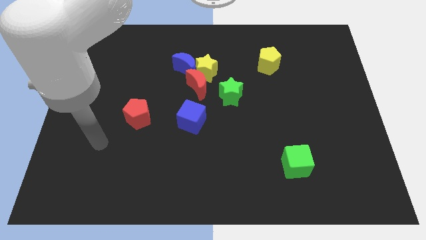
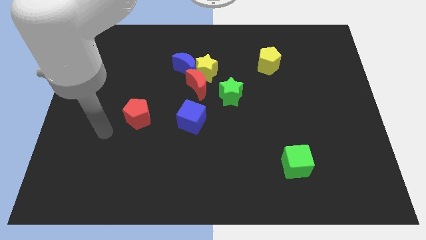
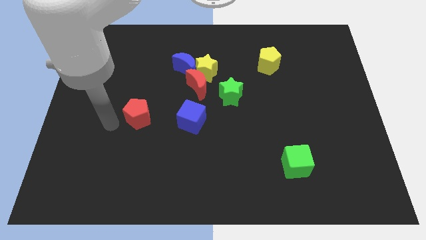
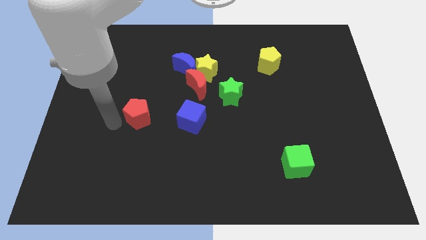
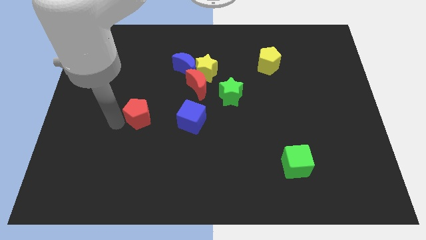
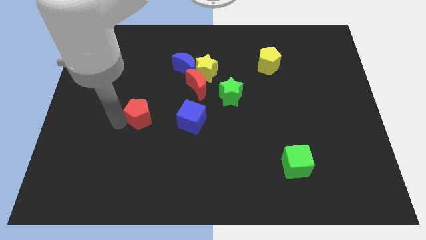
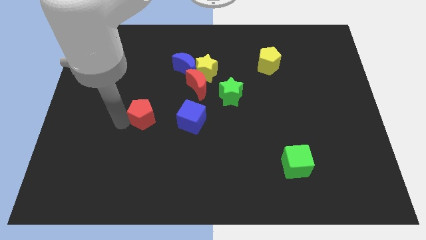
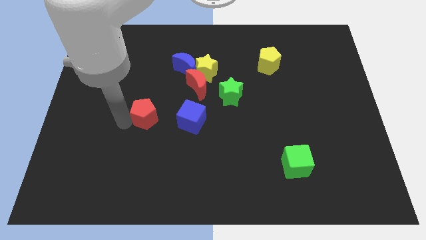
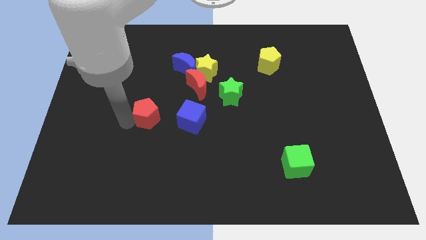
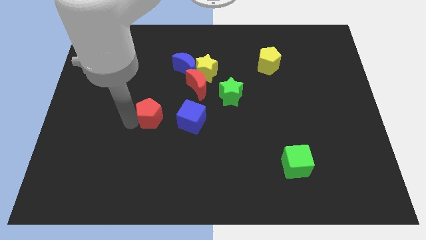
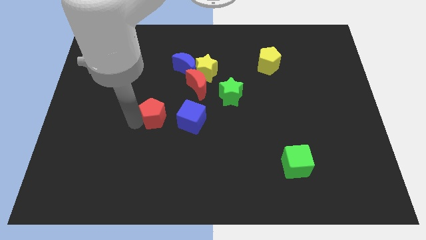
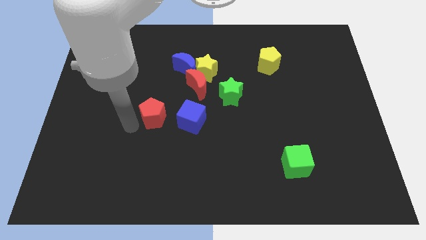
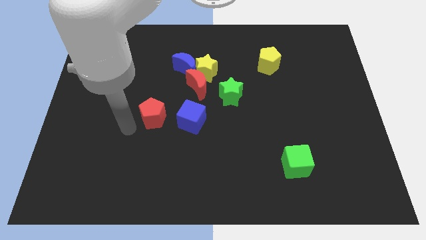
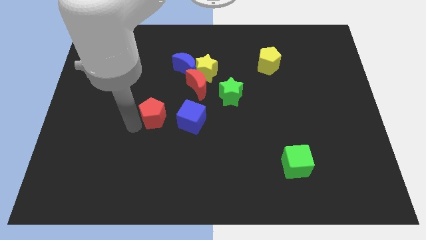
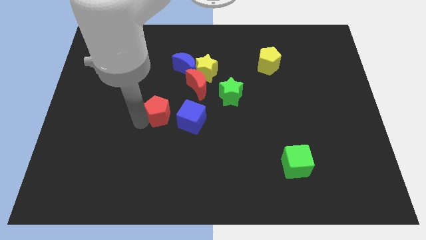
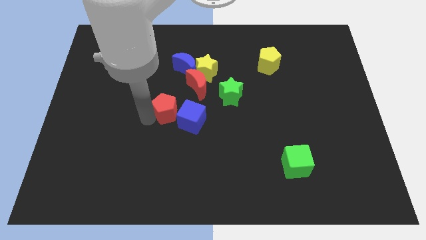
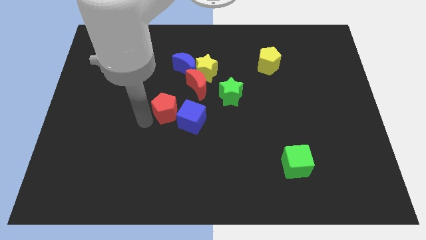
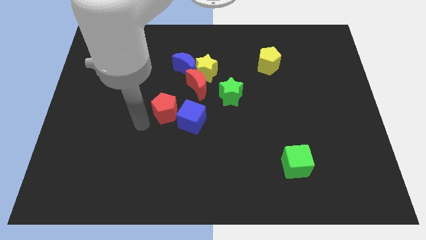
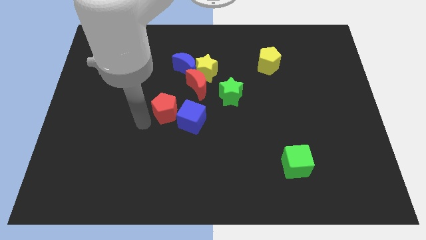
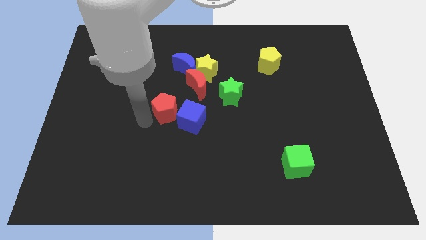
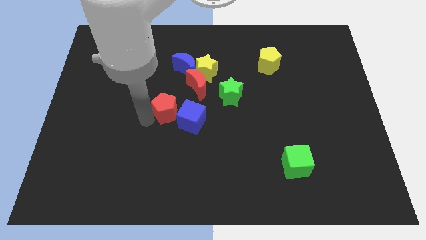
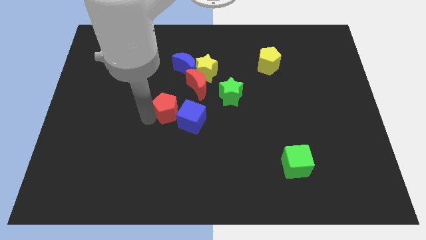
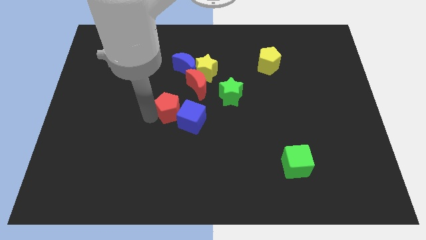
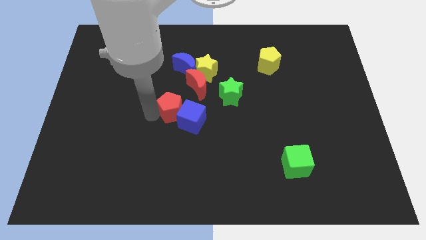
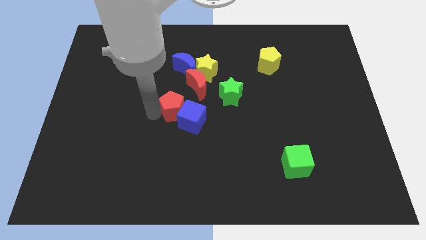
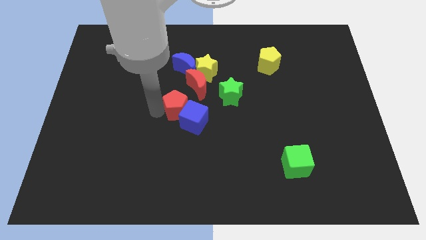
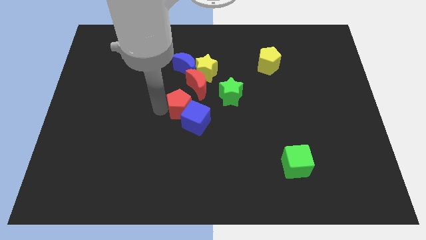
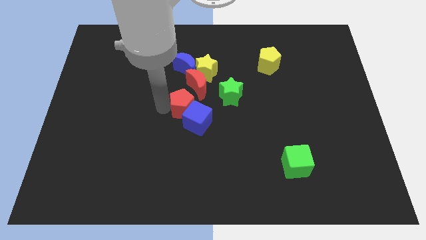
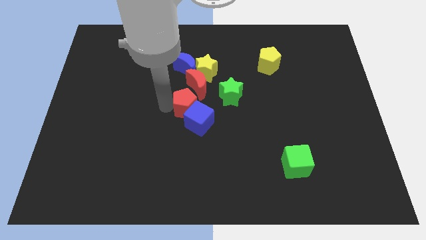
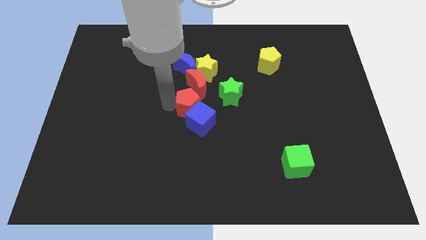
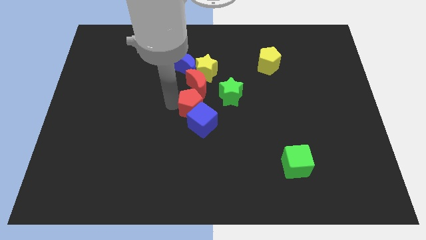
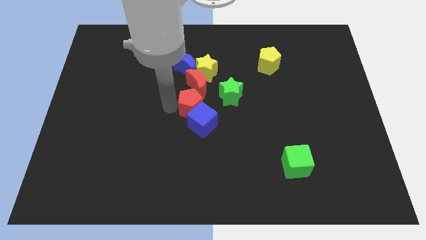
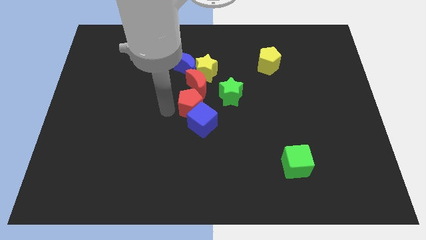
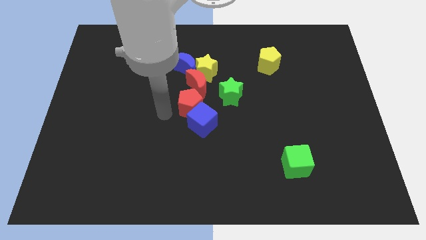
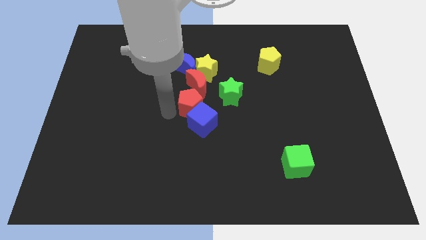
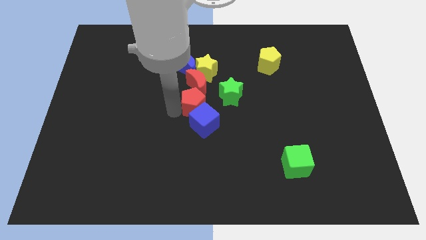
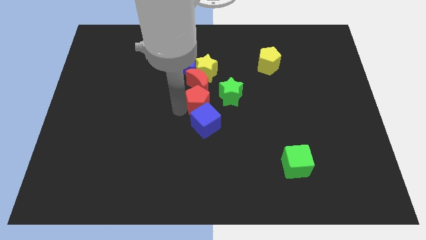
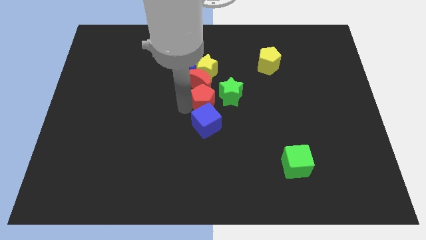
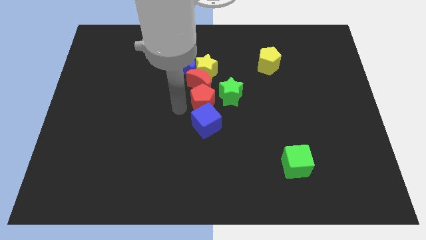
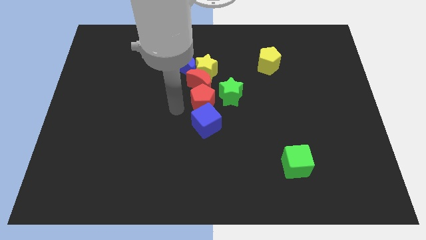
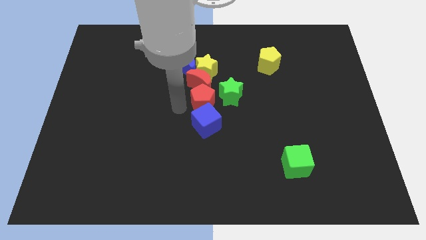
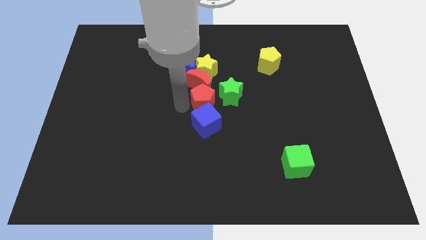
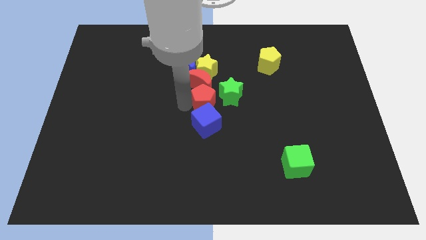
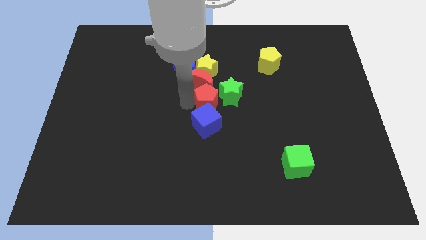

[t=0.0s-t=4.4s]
put the red pentagon close to the green star

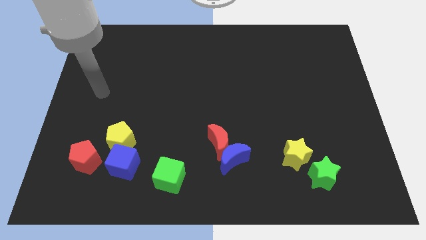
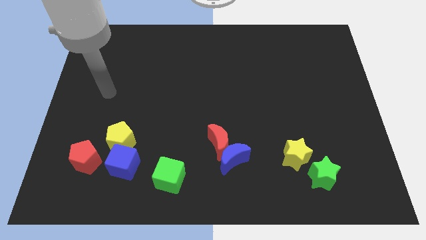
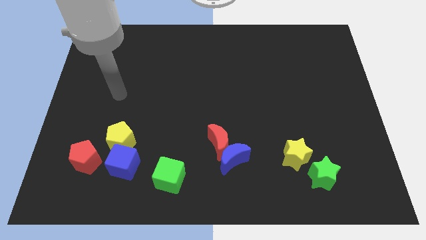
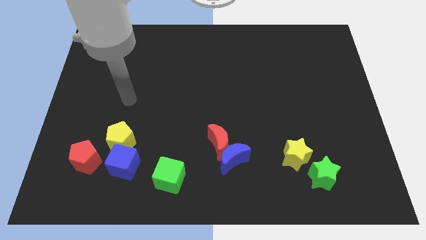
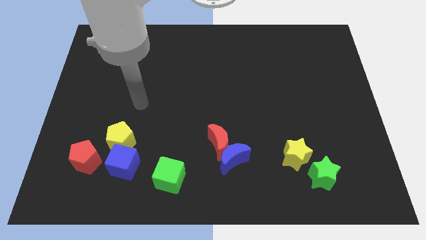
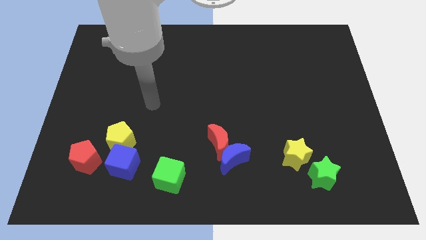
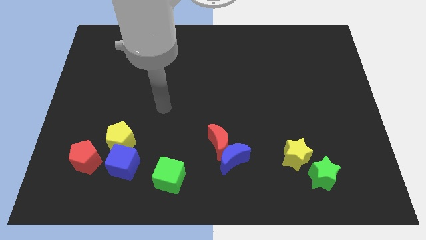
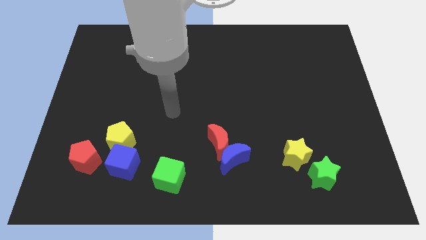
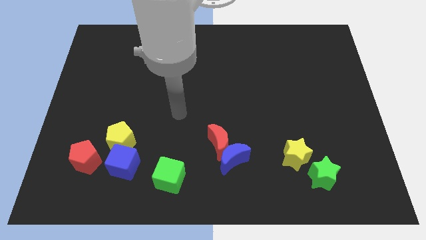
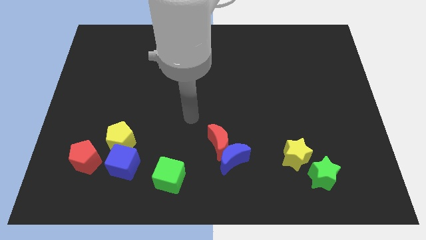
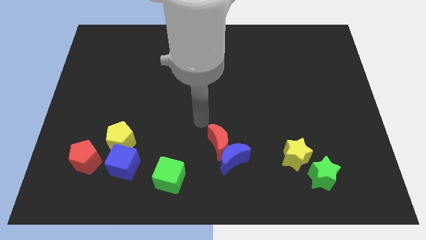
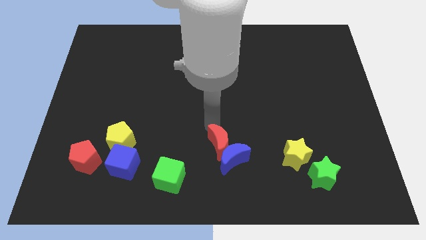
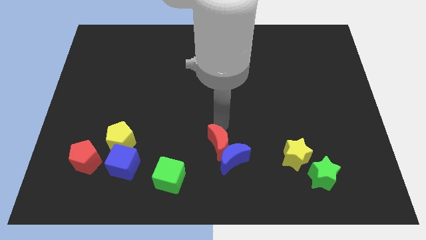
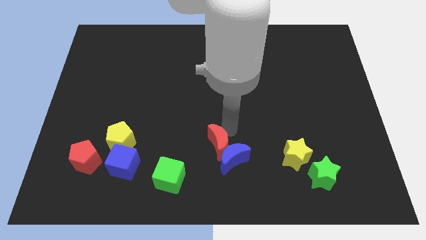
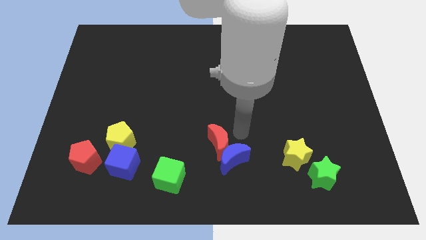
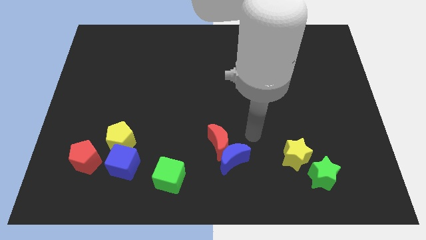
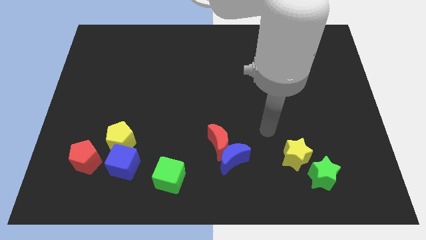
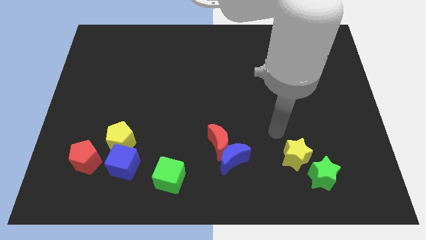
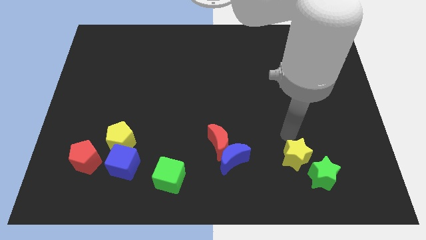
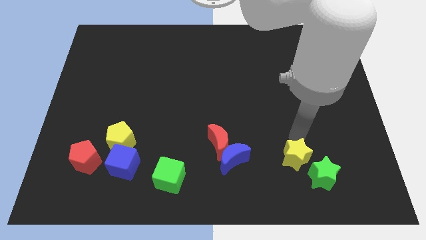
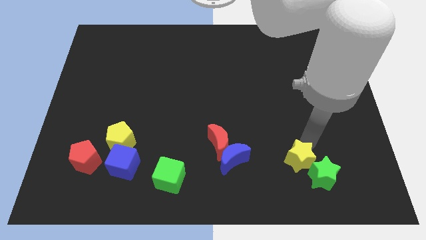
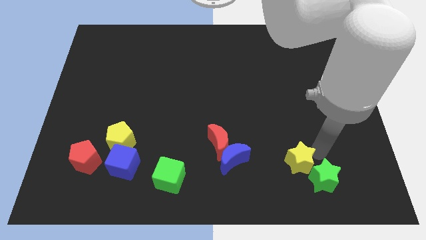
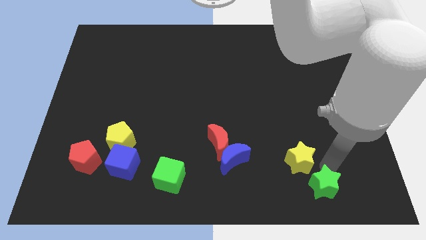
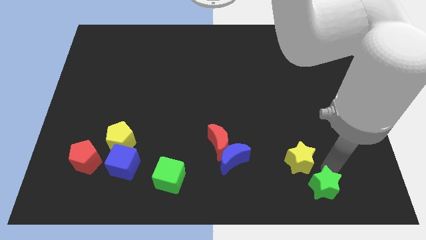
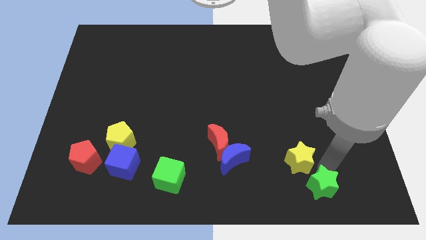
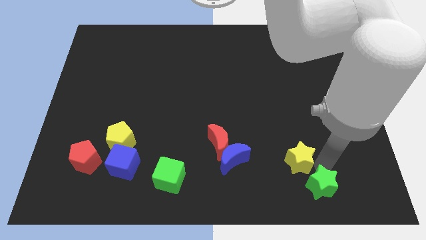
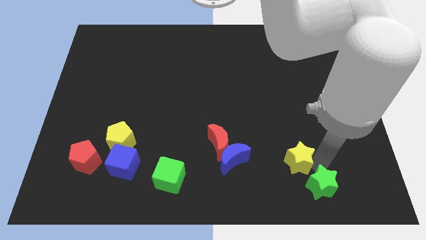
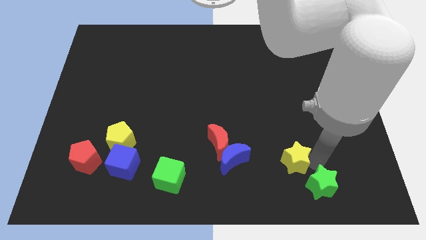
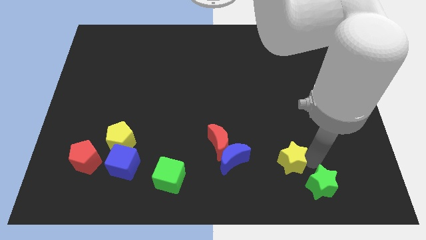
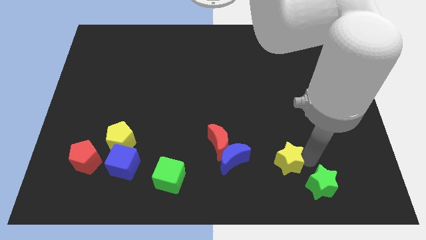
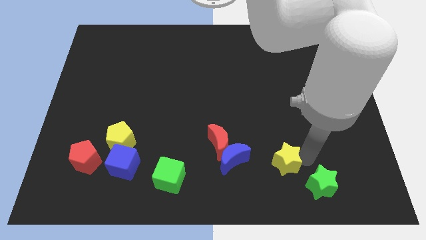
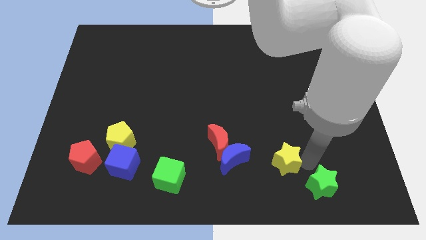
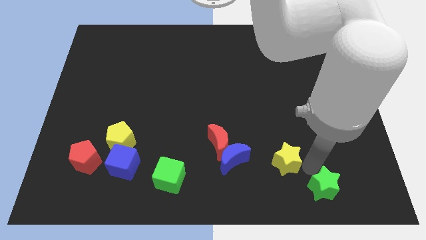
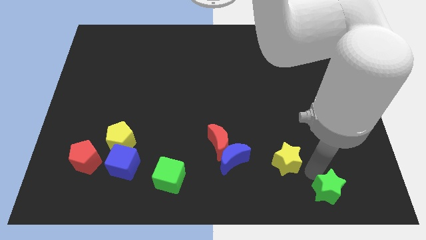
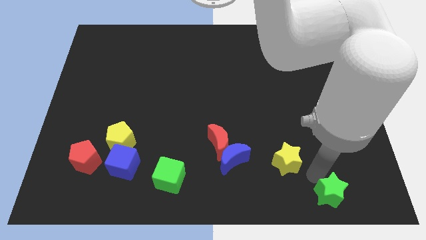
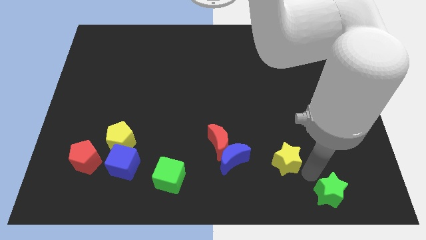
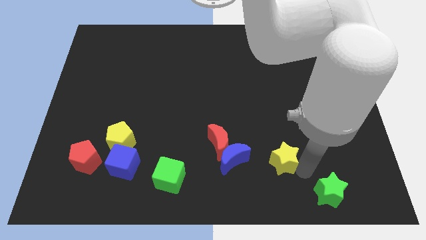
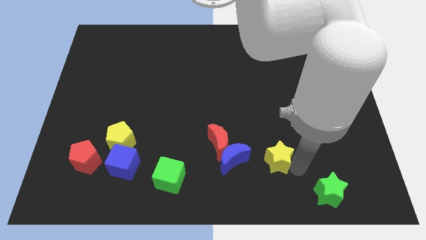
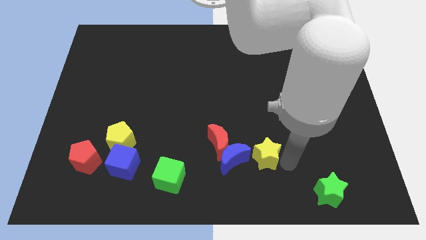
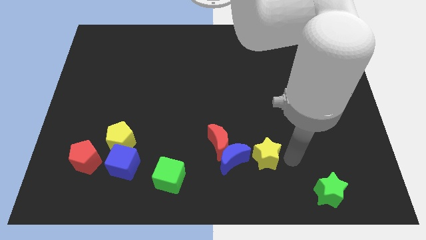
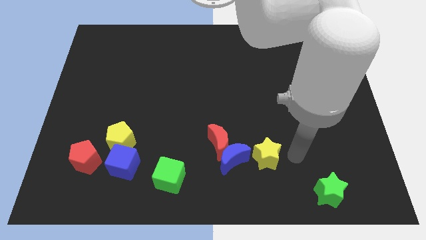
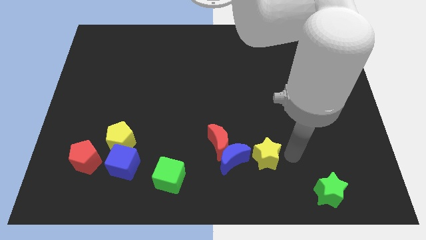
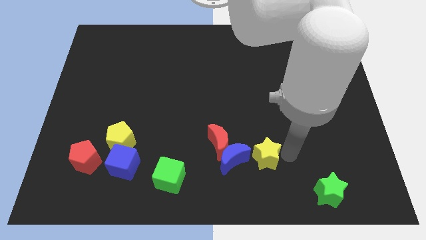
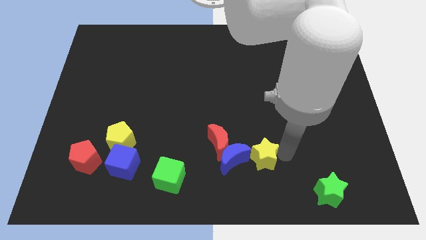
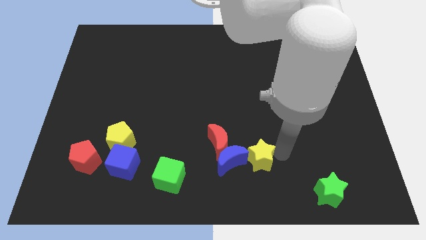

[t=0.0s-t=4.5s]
move the yellow star to the blue moon
